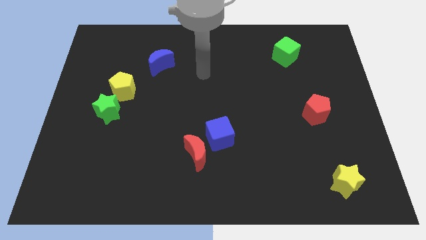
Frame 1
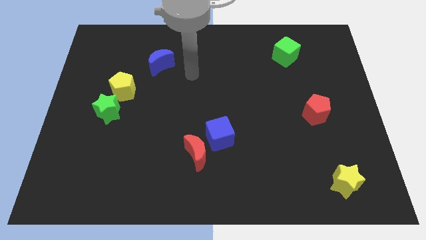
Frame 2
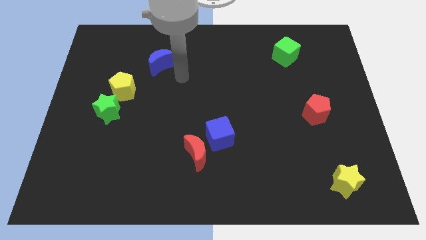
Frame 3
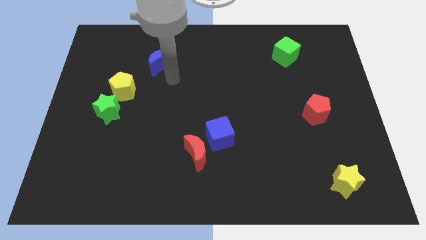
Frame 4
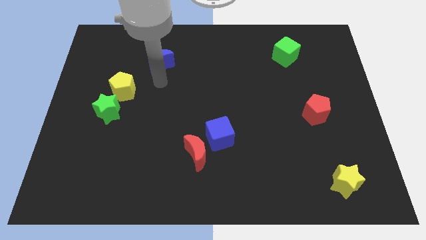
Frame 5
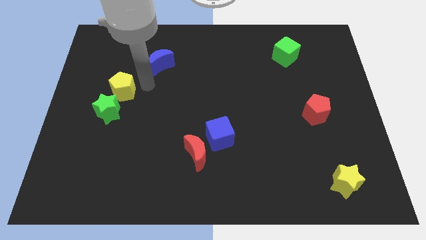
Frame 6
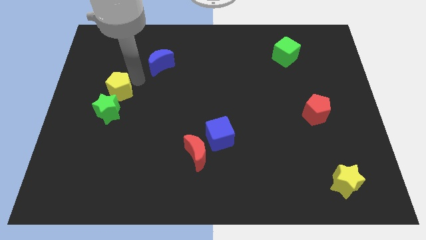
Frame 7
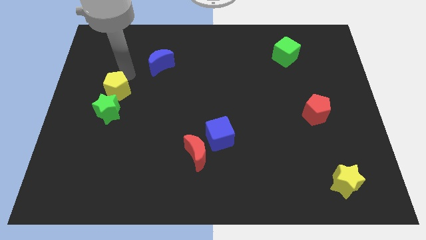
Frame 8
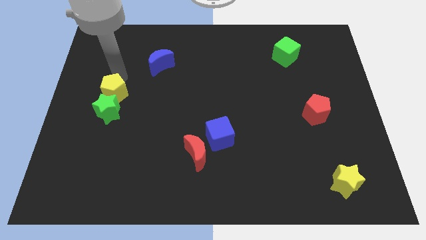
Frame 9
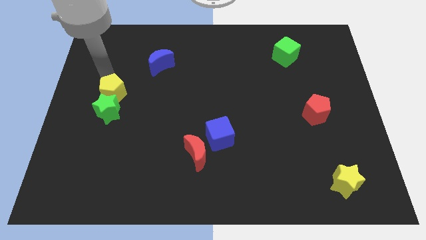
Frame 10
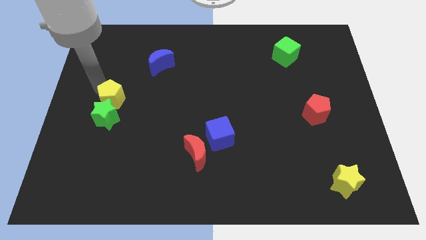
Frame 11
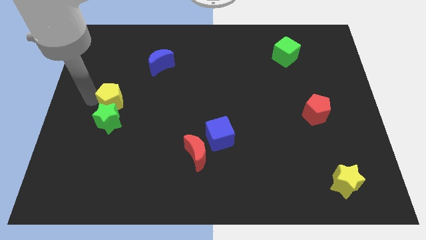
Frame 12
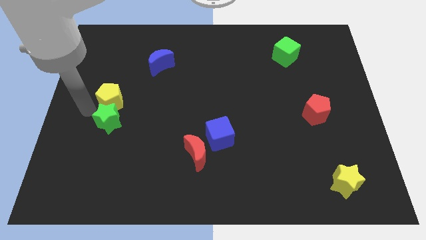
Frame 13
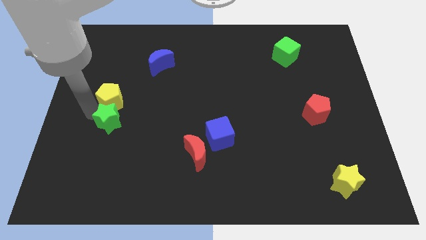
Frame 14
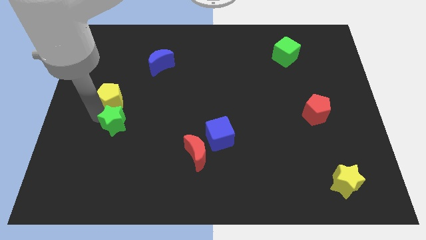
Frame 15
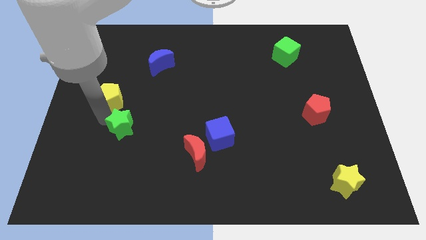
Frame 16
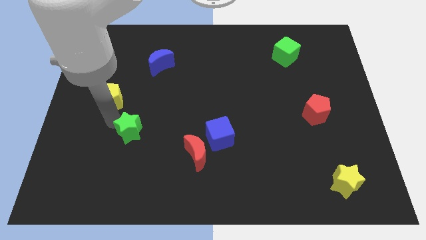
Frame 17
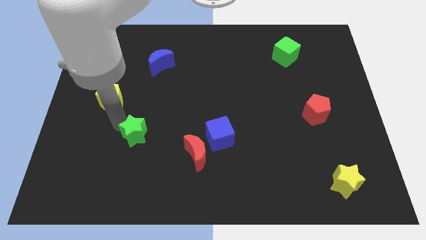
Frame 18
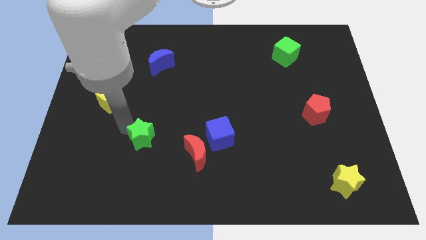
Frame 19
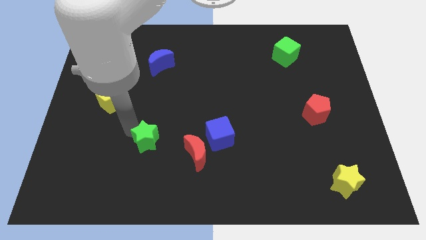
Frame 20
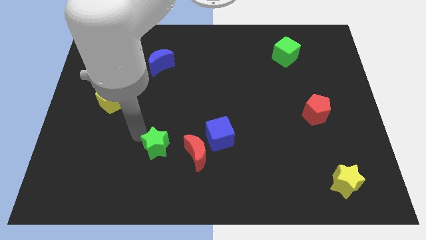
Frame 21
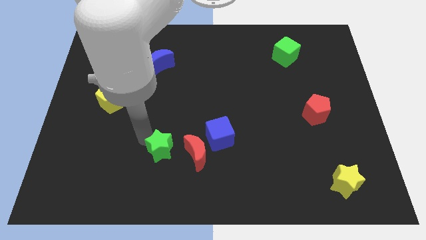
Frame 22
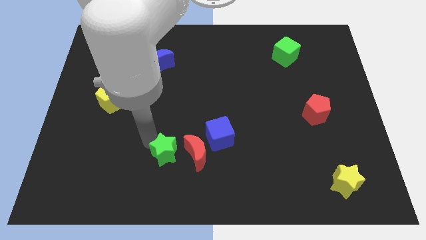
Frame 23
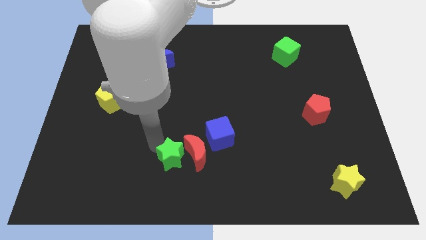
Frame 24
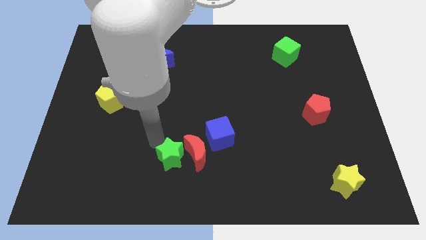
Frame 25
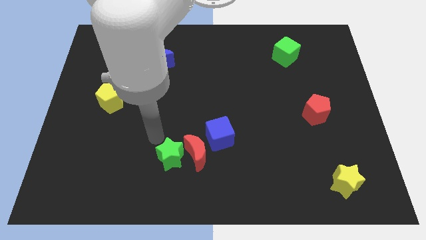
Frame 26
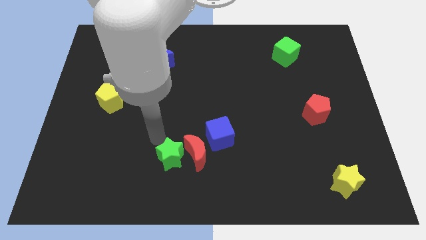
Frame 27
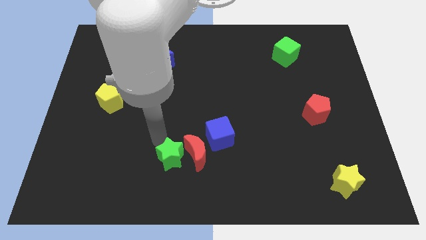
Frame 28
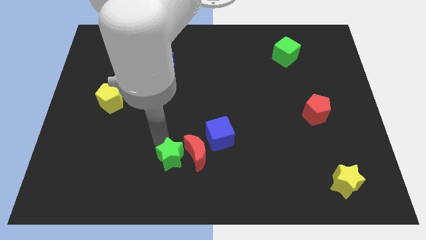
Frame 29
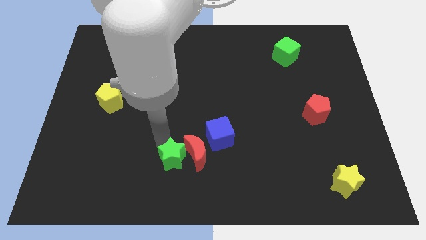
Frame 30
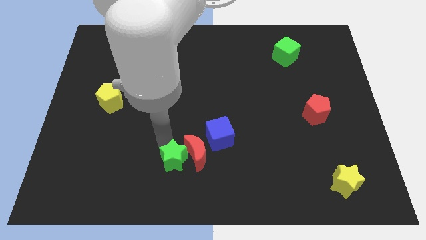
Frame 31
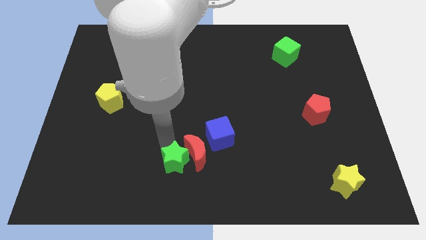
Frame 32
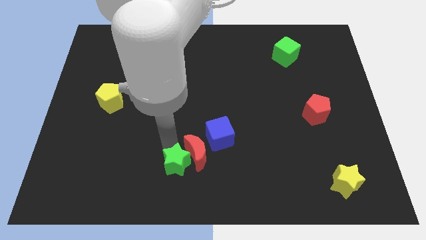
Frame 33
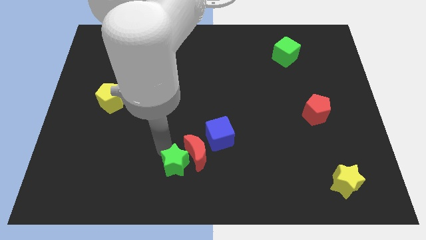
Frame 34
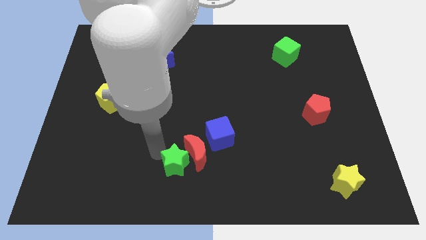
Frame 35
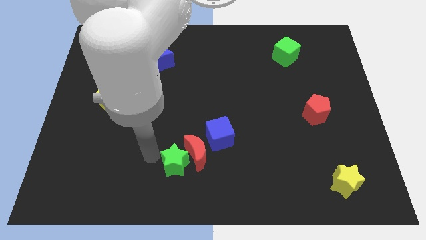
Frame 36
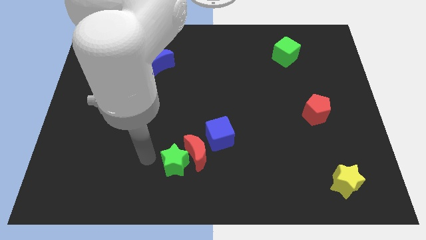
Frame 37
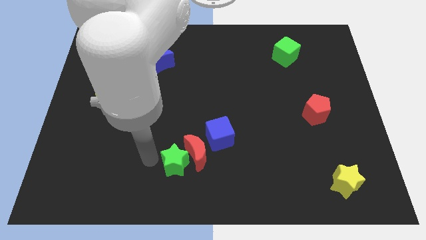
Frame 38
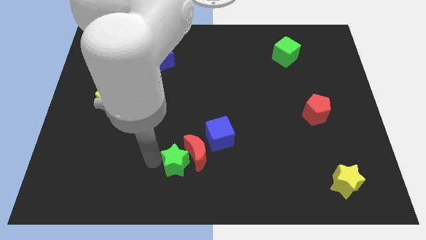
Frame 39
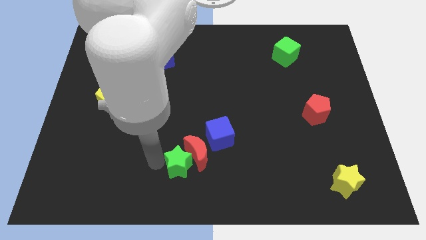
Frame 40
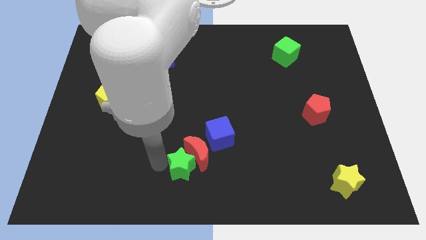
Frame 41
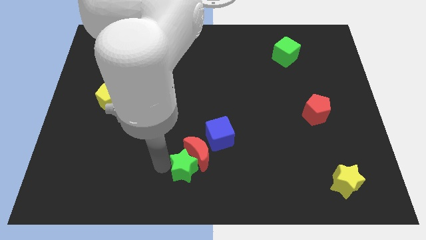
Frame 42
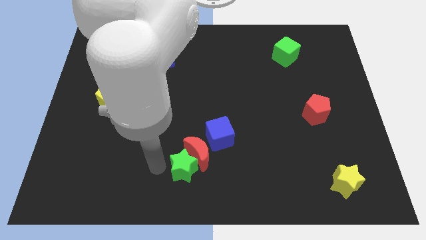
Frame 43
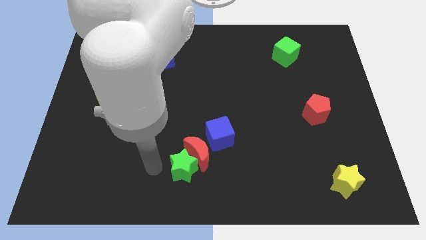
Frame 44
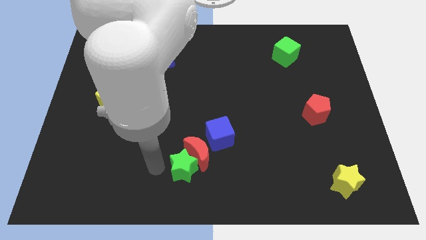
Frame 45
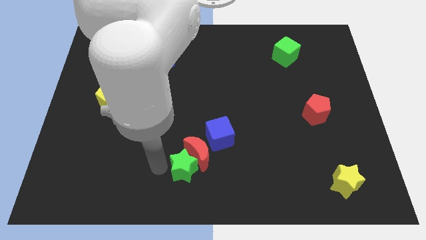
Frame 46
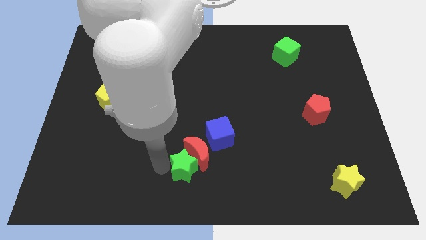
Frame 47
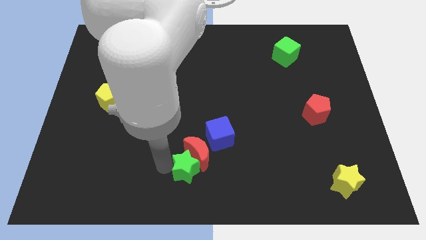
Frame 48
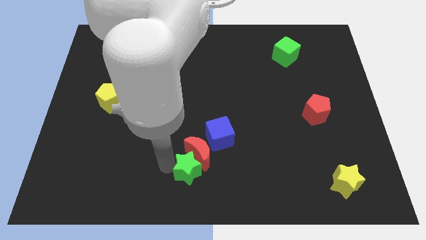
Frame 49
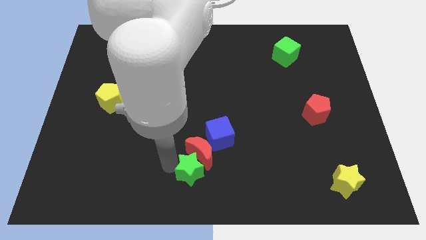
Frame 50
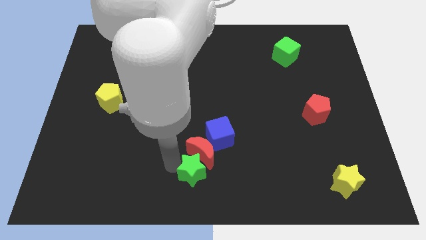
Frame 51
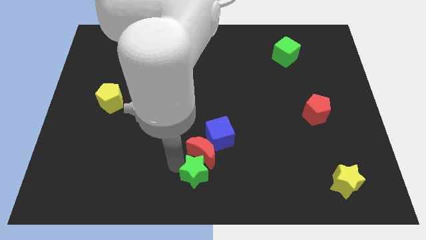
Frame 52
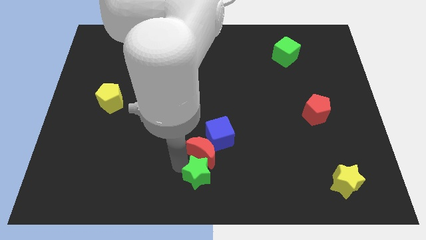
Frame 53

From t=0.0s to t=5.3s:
put the green star below the blue cube

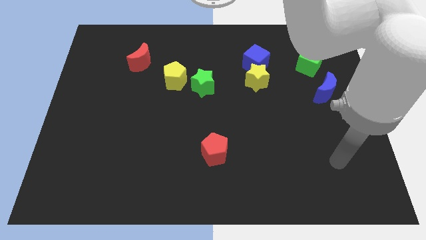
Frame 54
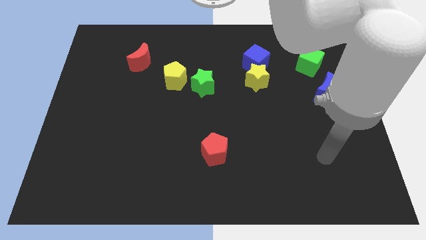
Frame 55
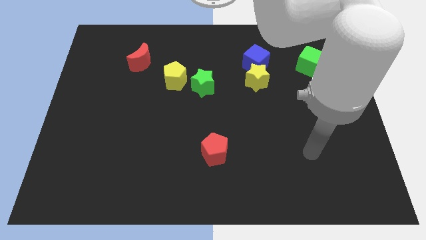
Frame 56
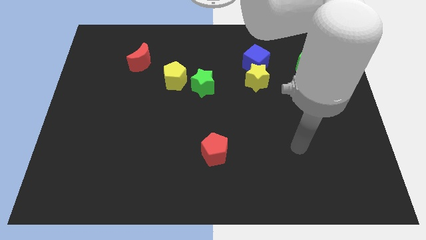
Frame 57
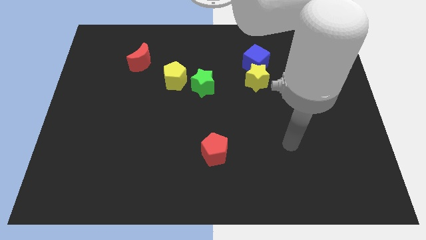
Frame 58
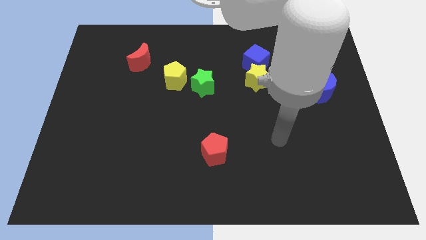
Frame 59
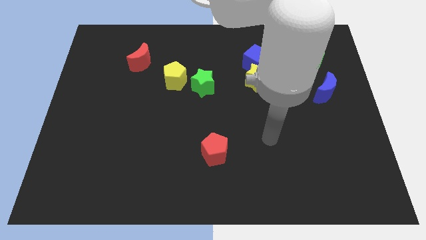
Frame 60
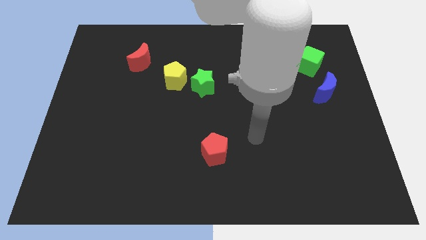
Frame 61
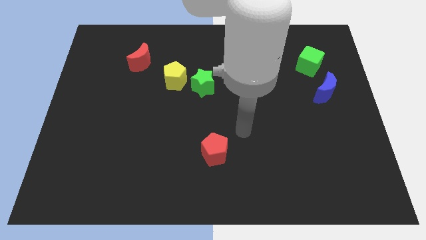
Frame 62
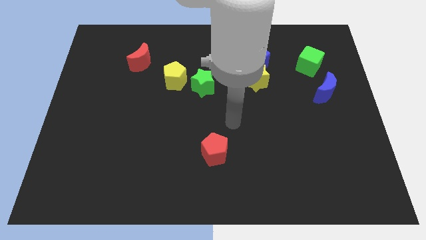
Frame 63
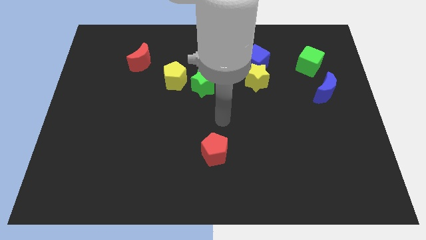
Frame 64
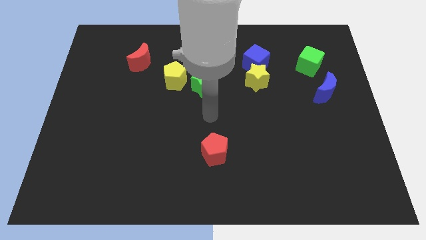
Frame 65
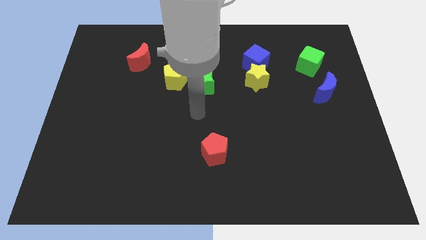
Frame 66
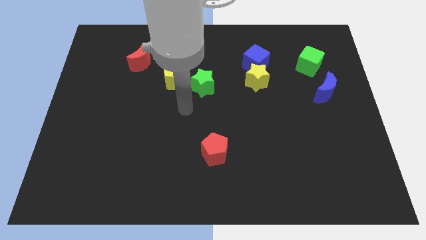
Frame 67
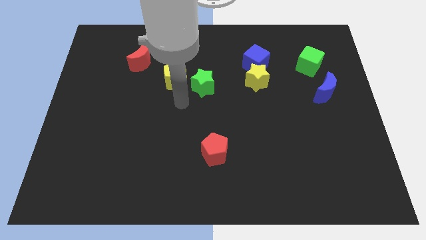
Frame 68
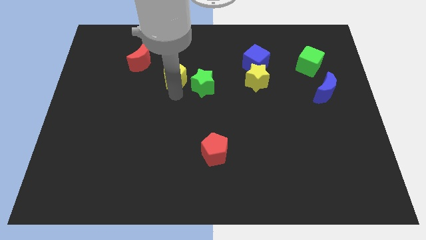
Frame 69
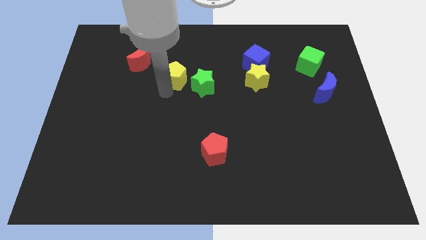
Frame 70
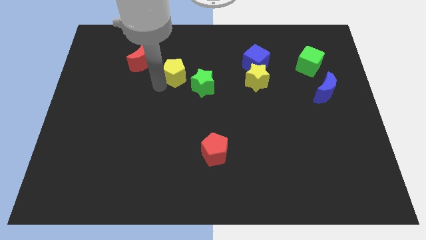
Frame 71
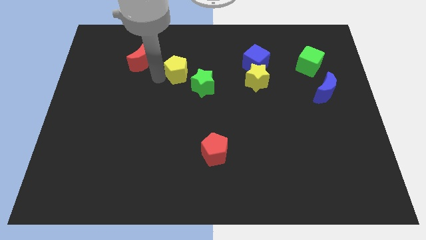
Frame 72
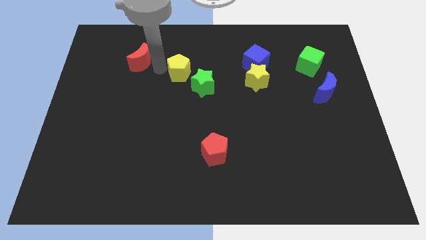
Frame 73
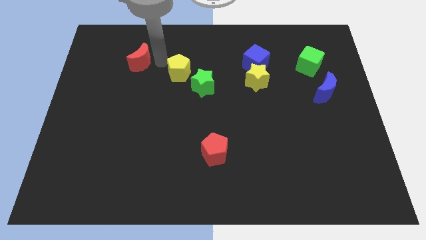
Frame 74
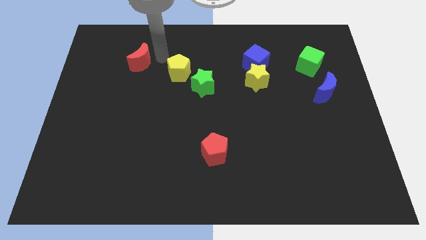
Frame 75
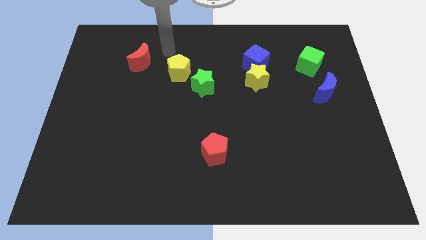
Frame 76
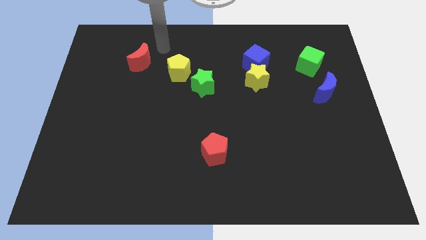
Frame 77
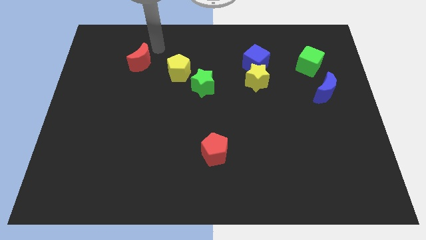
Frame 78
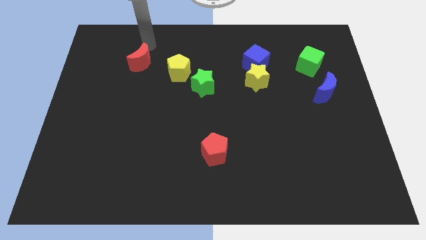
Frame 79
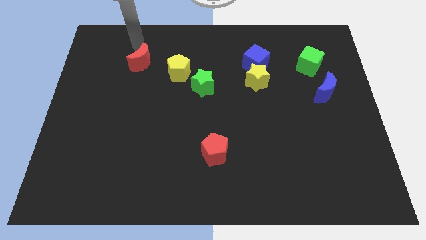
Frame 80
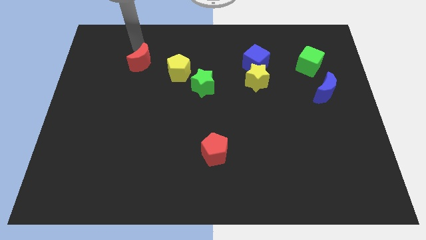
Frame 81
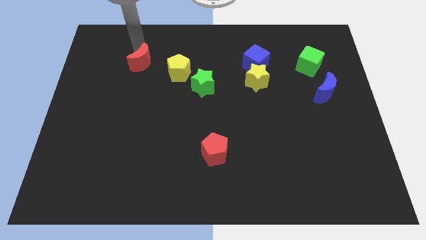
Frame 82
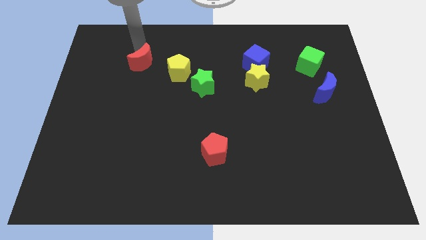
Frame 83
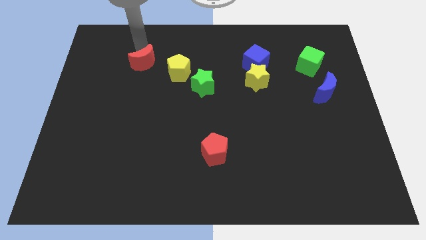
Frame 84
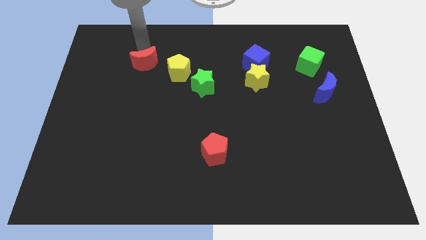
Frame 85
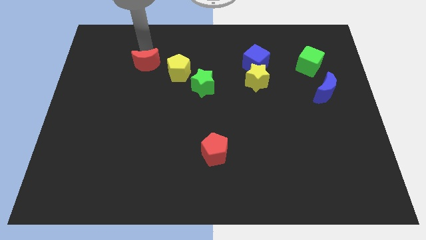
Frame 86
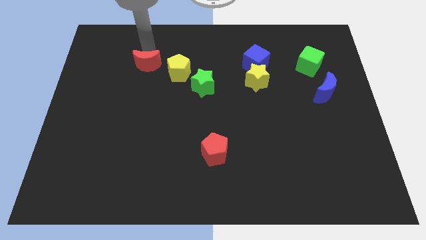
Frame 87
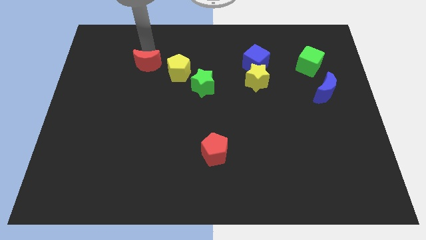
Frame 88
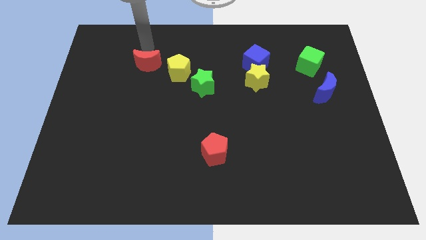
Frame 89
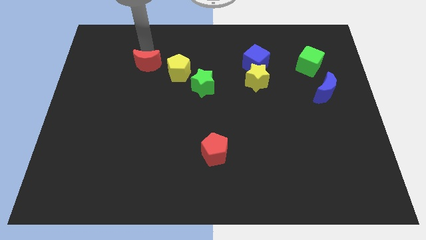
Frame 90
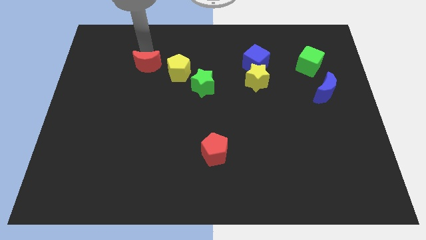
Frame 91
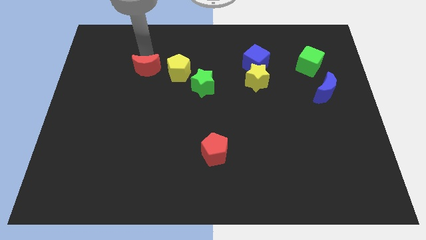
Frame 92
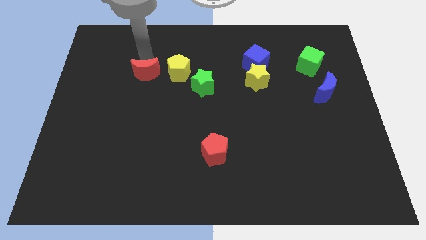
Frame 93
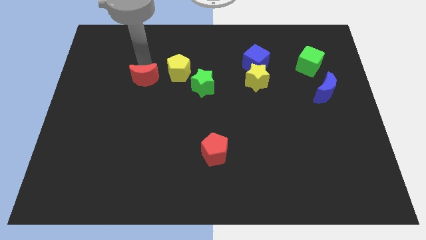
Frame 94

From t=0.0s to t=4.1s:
slide the red moon to the bottom left side of the yellow pentagon
